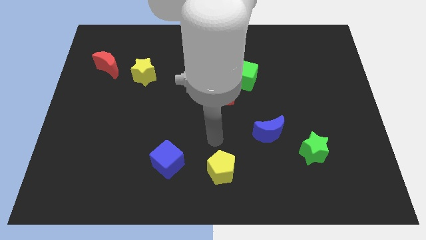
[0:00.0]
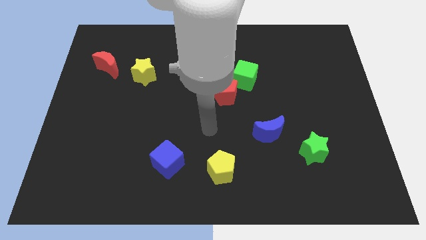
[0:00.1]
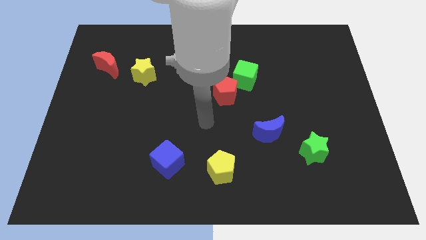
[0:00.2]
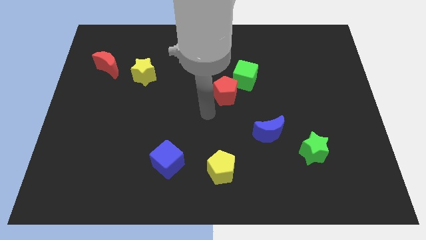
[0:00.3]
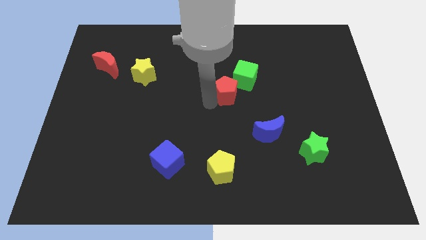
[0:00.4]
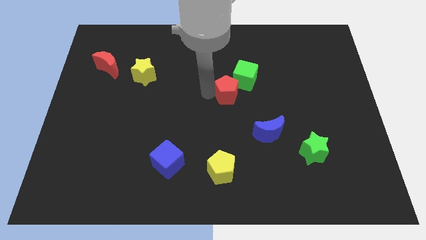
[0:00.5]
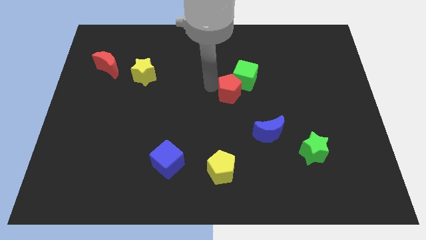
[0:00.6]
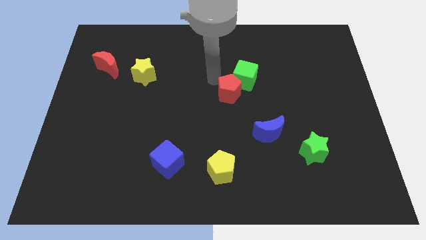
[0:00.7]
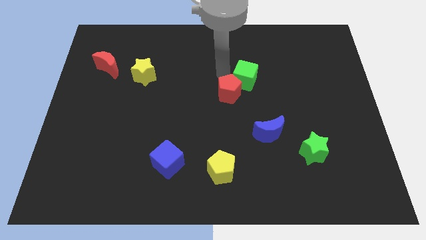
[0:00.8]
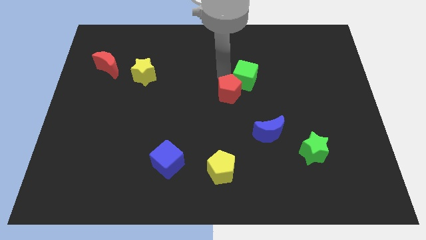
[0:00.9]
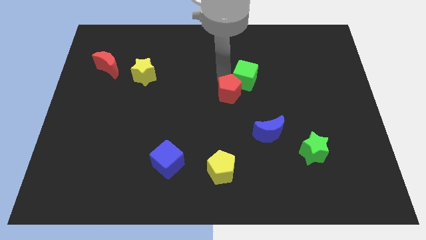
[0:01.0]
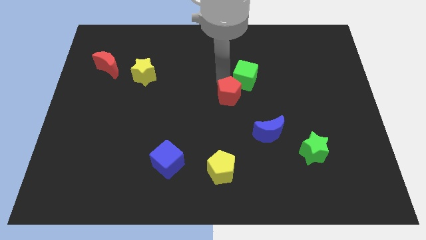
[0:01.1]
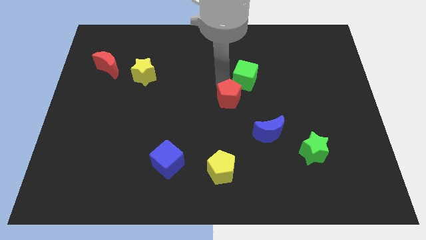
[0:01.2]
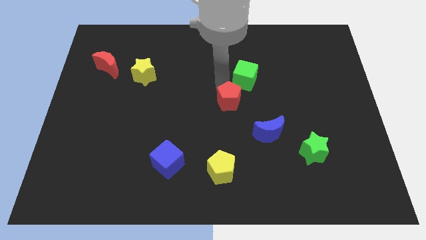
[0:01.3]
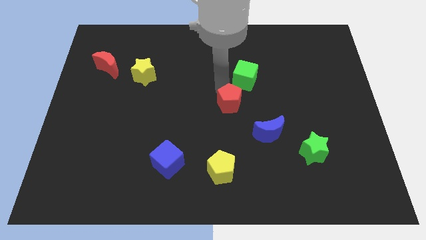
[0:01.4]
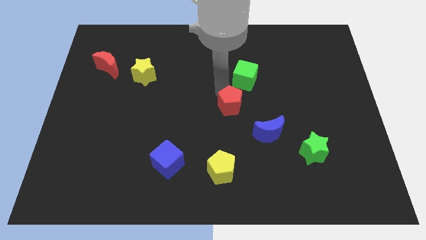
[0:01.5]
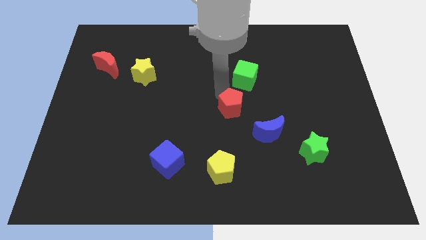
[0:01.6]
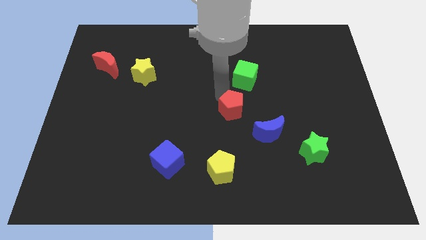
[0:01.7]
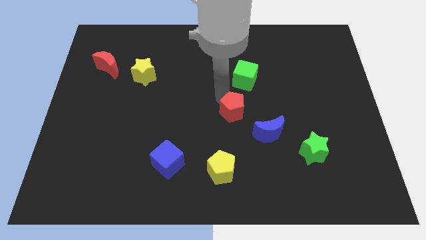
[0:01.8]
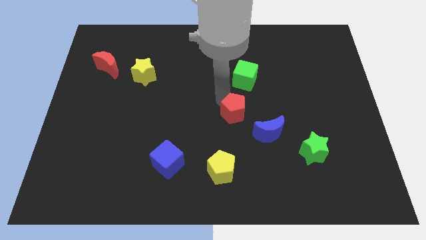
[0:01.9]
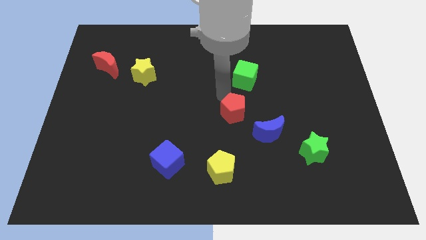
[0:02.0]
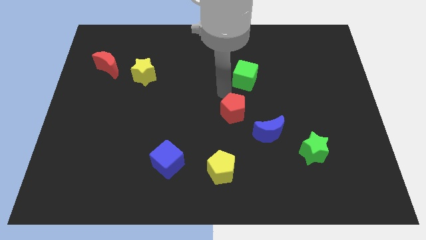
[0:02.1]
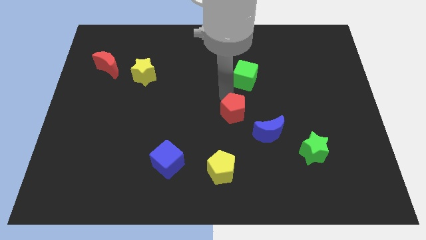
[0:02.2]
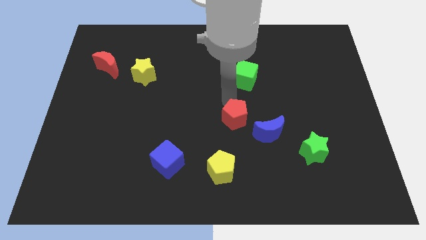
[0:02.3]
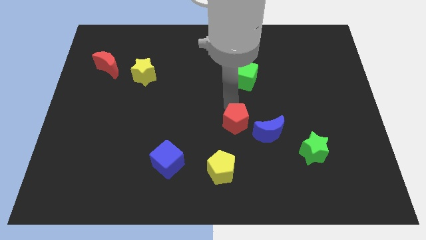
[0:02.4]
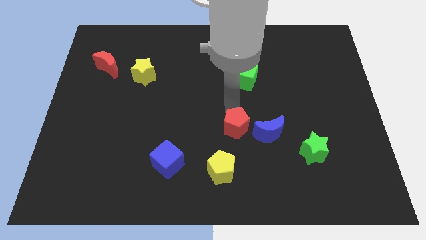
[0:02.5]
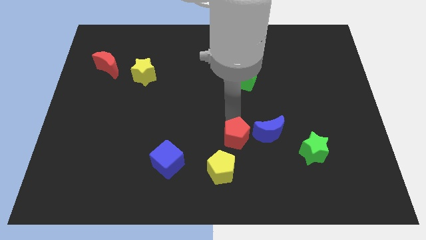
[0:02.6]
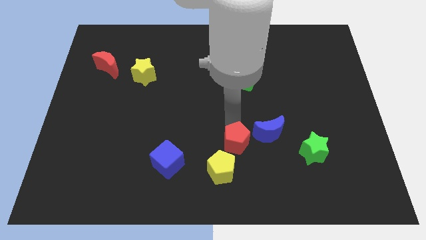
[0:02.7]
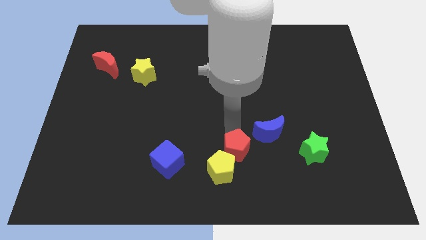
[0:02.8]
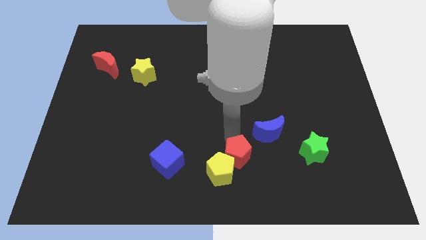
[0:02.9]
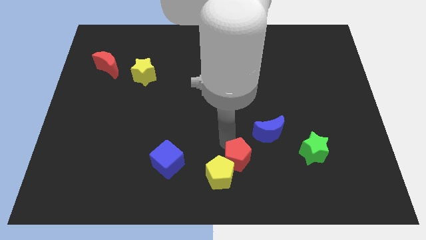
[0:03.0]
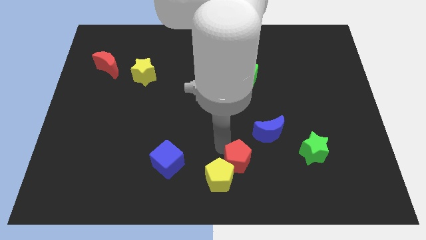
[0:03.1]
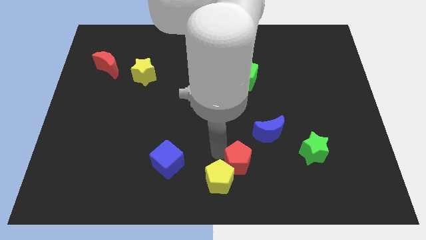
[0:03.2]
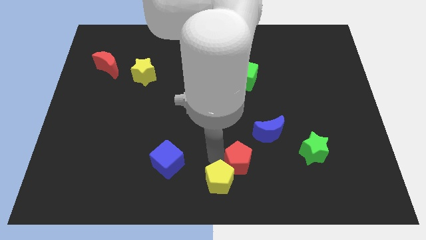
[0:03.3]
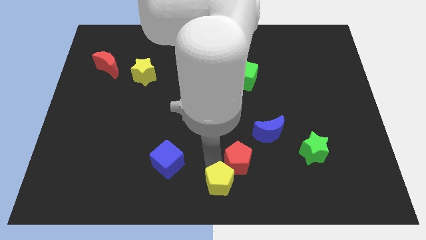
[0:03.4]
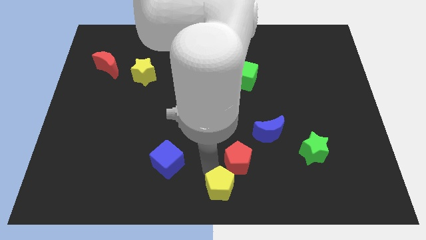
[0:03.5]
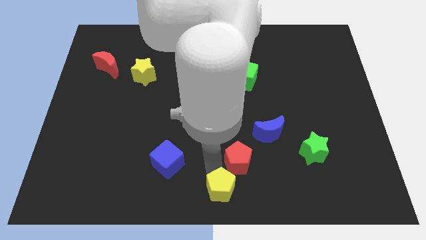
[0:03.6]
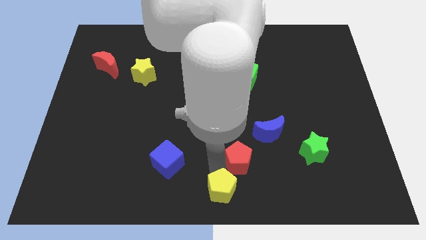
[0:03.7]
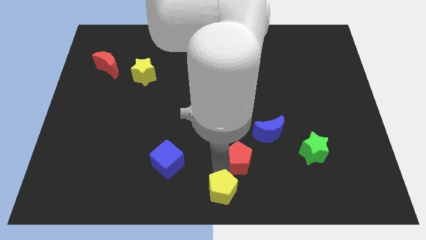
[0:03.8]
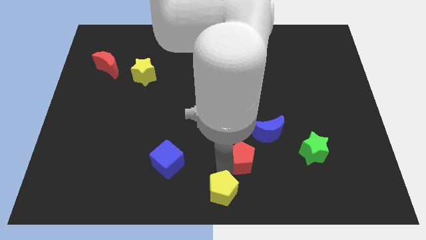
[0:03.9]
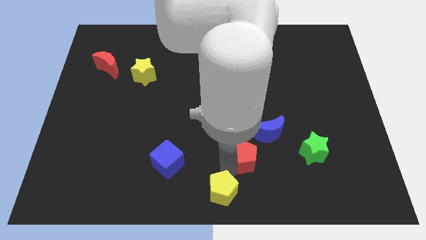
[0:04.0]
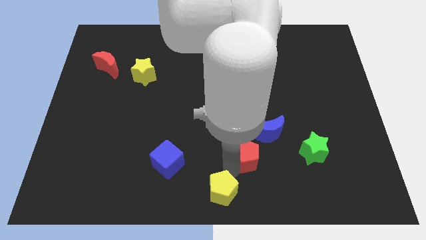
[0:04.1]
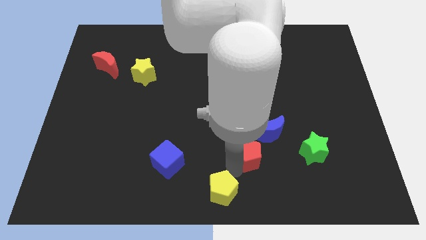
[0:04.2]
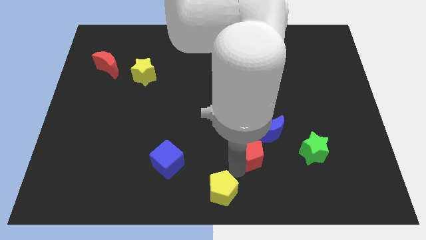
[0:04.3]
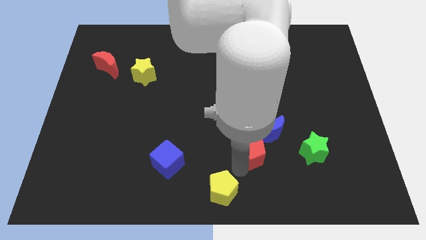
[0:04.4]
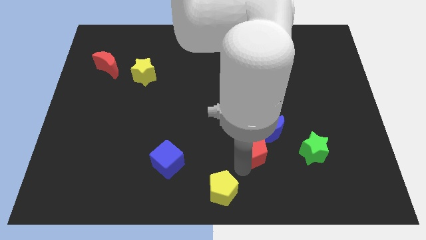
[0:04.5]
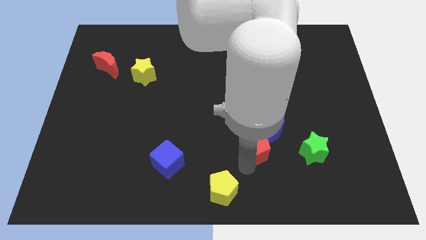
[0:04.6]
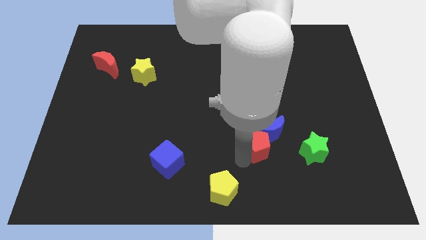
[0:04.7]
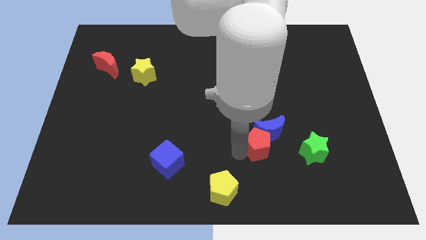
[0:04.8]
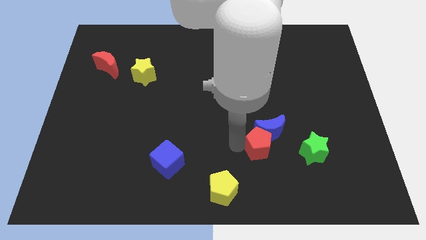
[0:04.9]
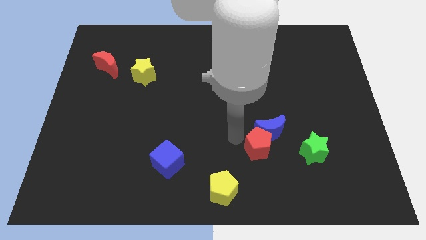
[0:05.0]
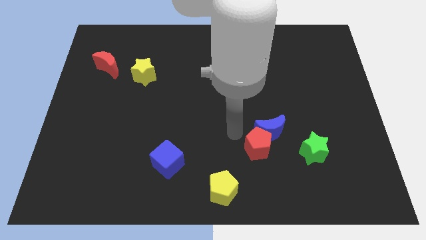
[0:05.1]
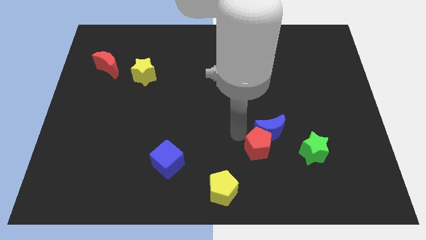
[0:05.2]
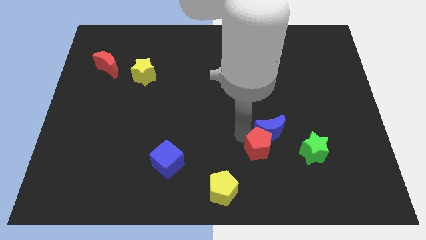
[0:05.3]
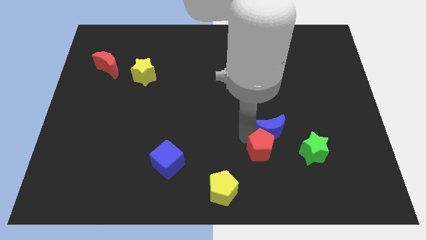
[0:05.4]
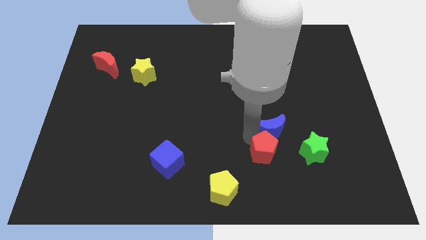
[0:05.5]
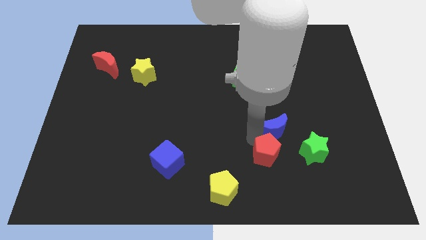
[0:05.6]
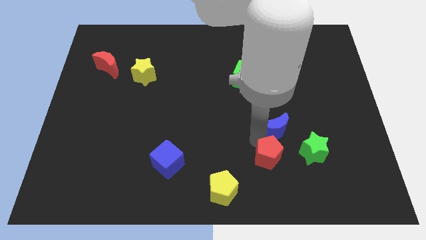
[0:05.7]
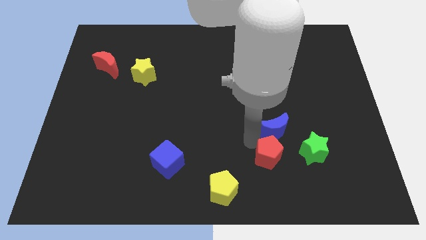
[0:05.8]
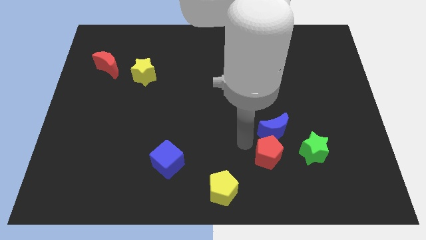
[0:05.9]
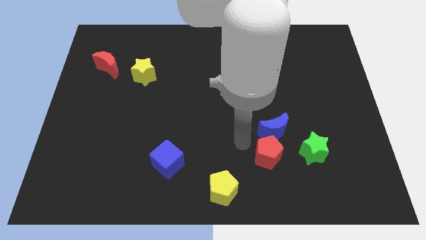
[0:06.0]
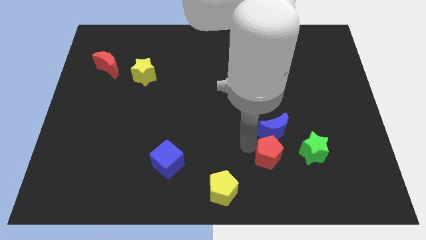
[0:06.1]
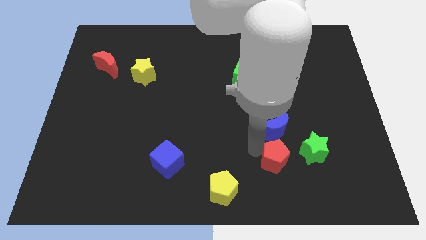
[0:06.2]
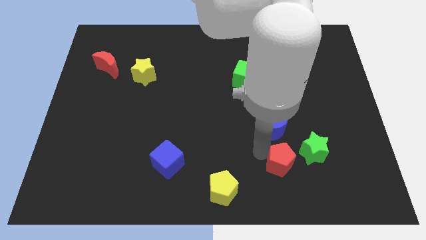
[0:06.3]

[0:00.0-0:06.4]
push the red pentagon down and then right

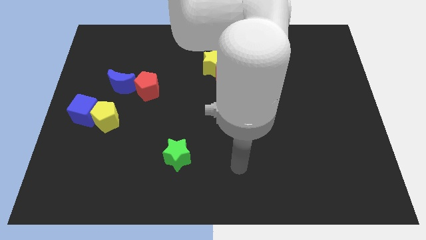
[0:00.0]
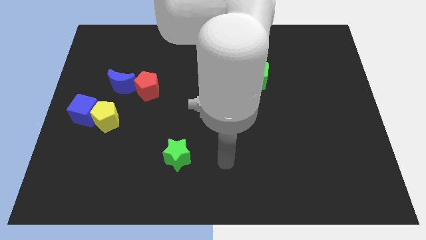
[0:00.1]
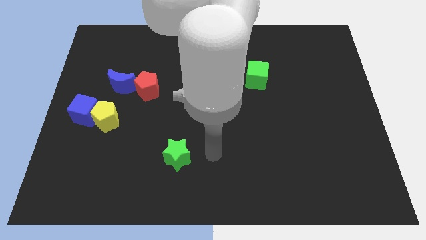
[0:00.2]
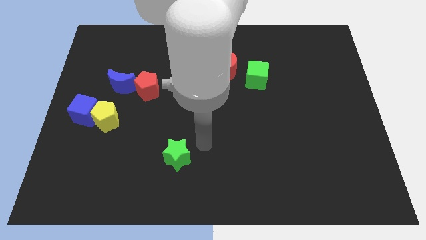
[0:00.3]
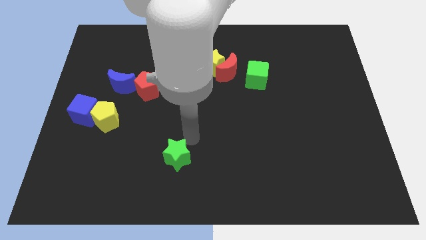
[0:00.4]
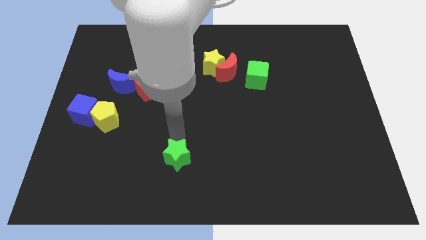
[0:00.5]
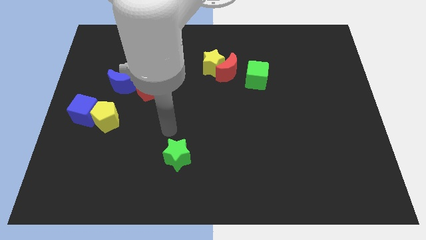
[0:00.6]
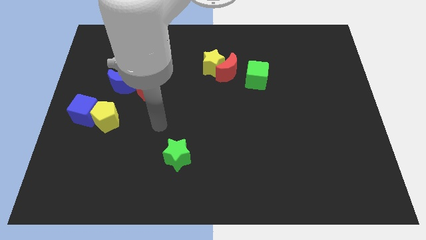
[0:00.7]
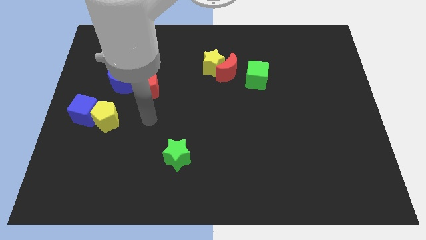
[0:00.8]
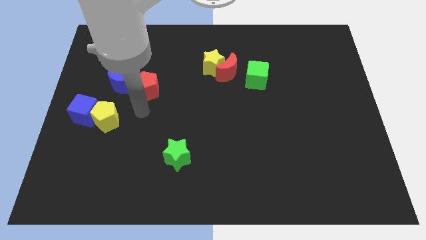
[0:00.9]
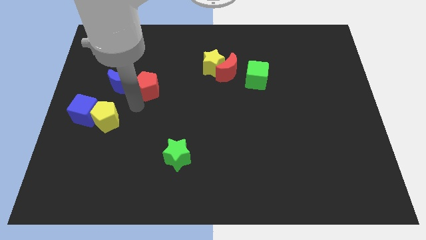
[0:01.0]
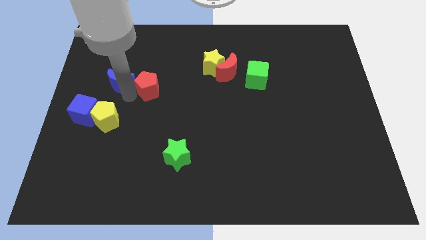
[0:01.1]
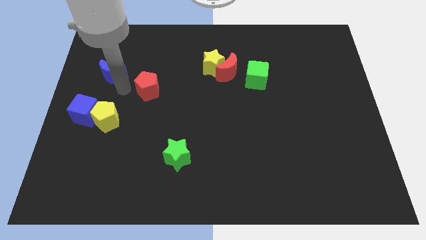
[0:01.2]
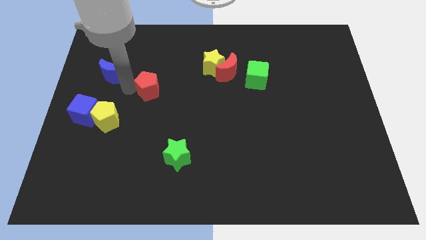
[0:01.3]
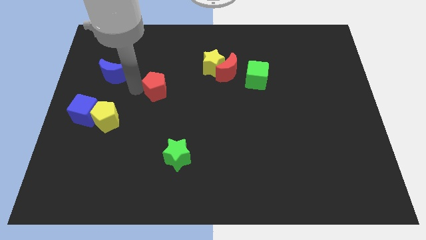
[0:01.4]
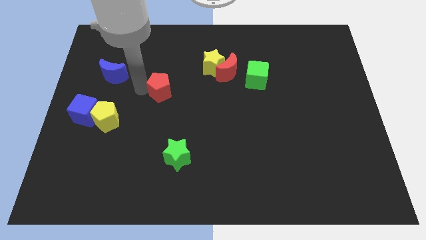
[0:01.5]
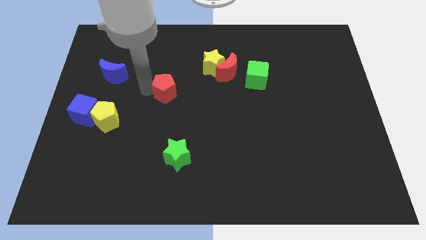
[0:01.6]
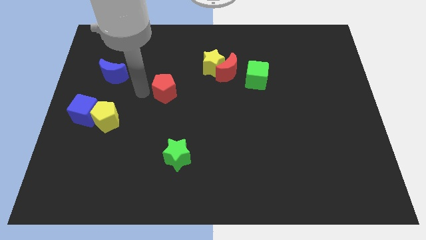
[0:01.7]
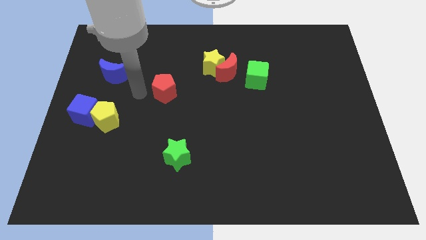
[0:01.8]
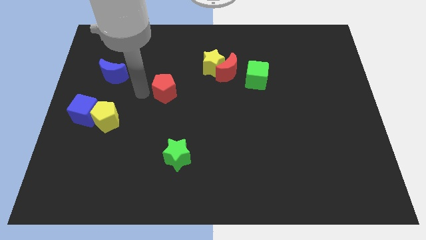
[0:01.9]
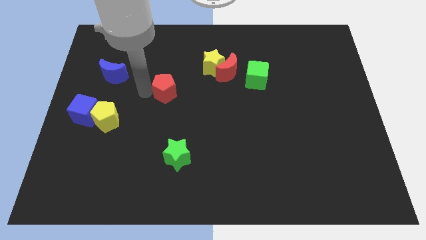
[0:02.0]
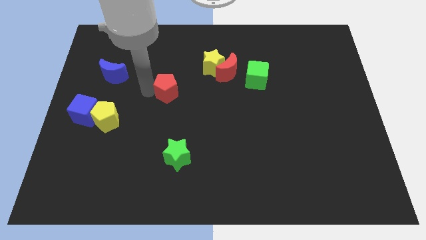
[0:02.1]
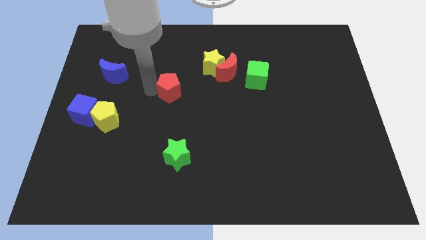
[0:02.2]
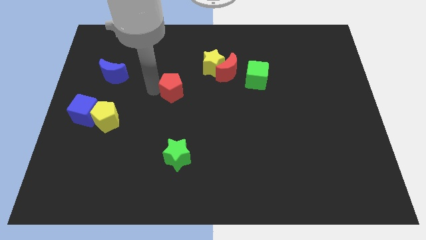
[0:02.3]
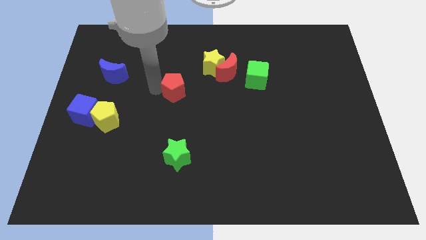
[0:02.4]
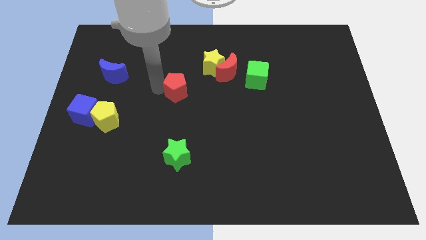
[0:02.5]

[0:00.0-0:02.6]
slightly slide the red pentagon right
